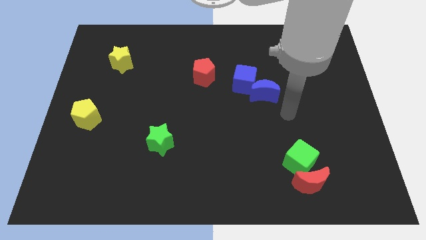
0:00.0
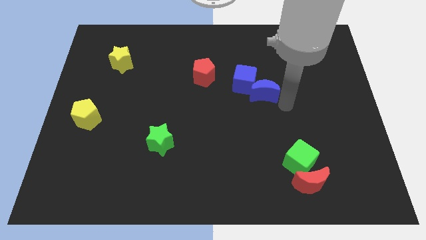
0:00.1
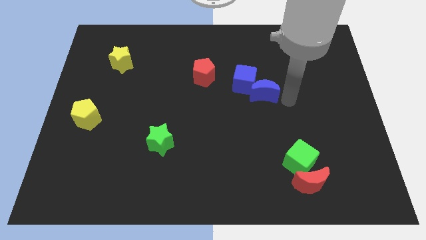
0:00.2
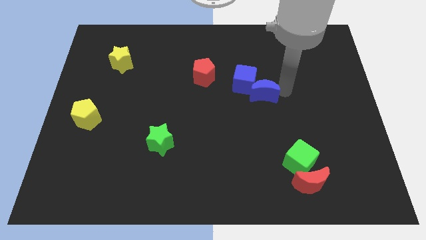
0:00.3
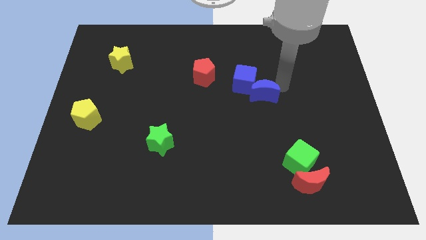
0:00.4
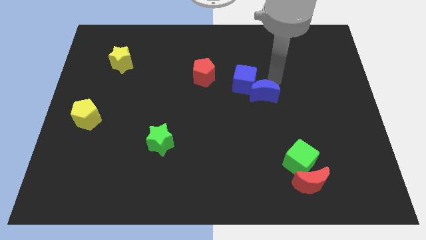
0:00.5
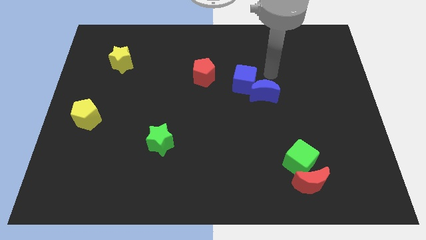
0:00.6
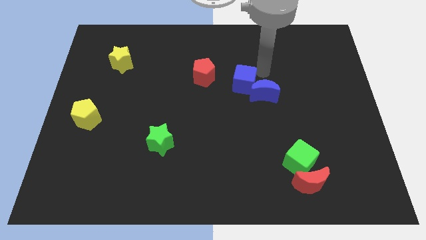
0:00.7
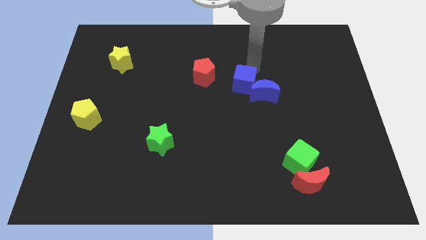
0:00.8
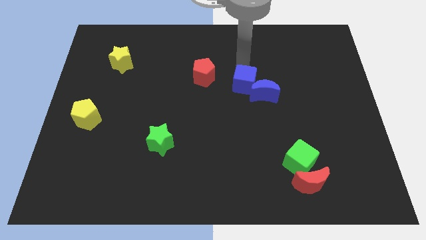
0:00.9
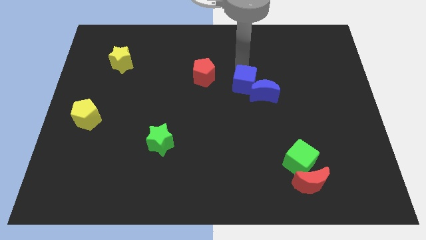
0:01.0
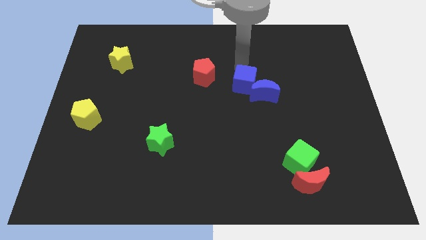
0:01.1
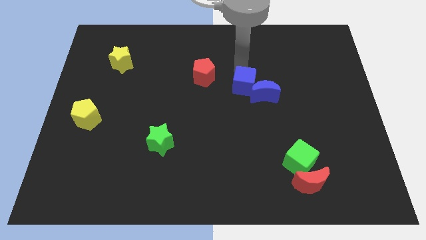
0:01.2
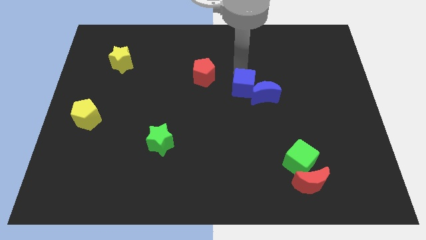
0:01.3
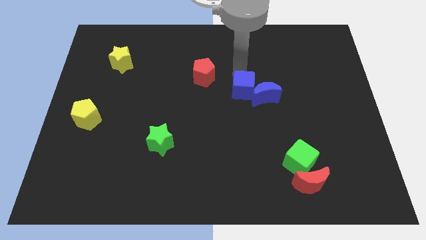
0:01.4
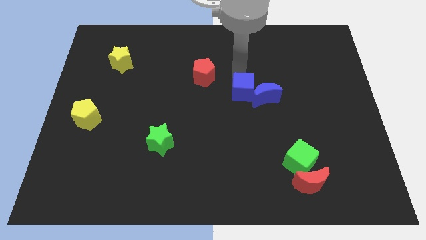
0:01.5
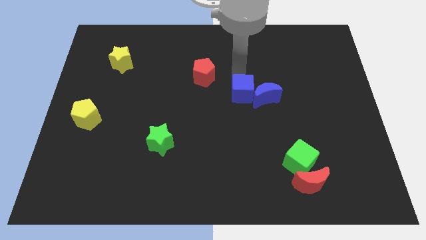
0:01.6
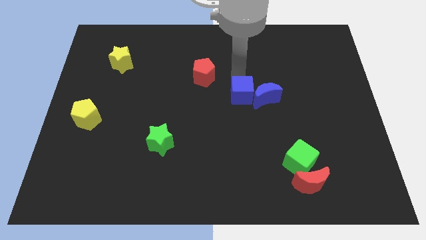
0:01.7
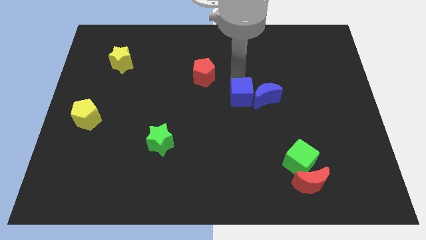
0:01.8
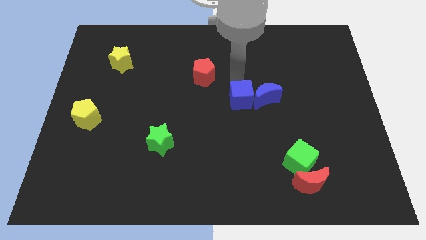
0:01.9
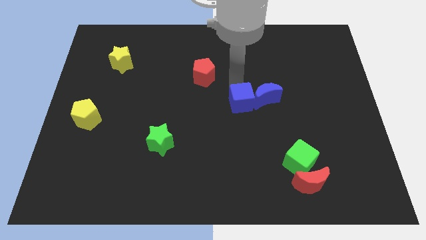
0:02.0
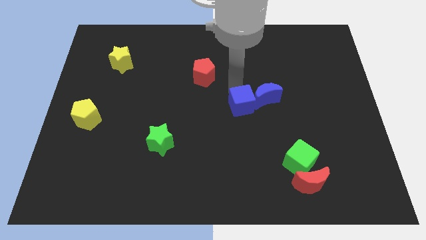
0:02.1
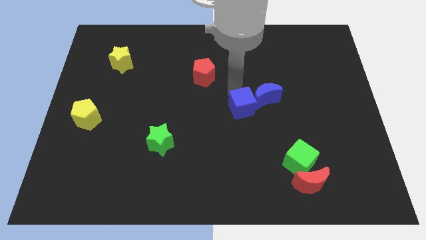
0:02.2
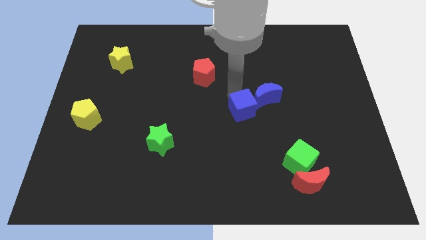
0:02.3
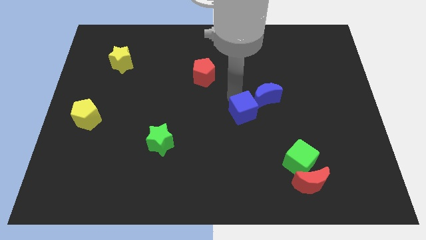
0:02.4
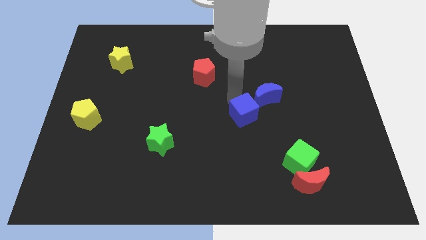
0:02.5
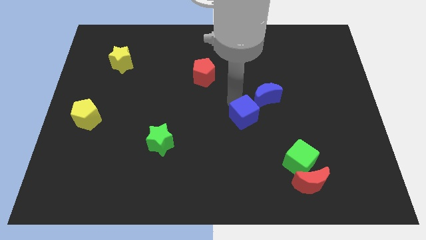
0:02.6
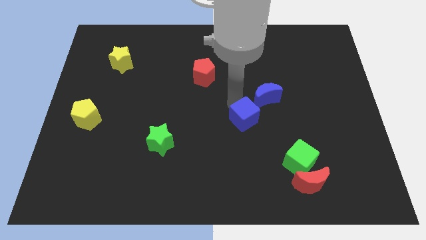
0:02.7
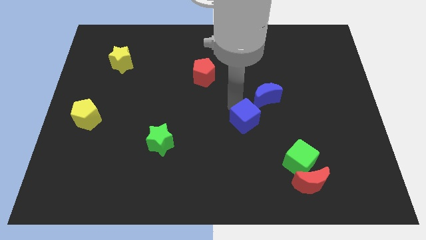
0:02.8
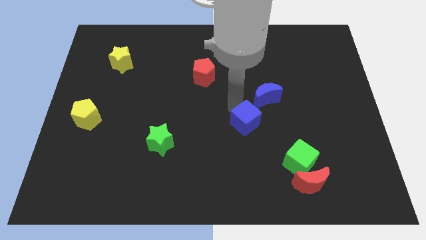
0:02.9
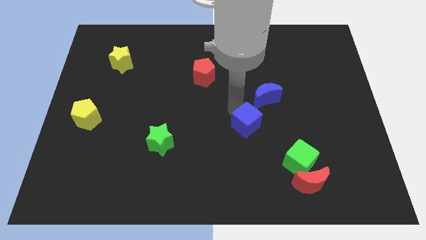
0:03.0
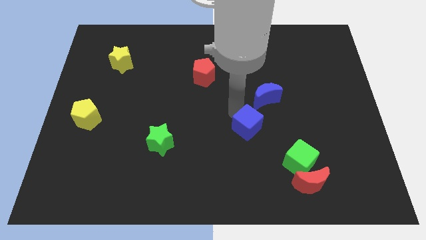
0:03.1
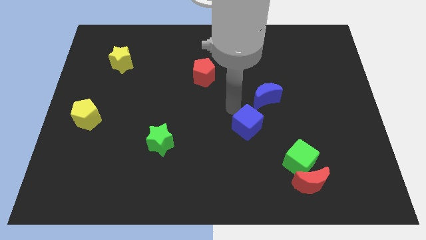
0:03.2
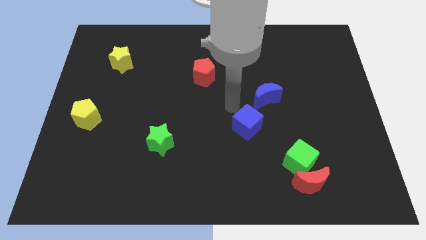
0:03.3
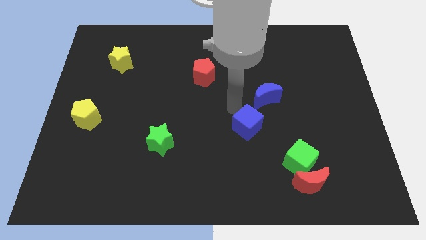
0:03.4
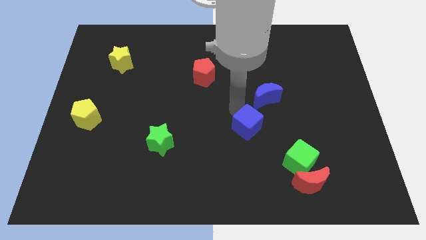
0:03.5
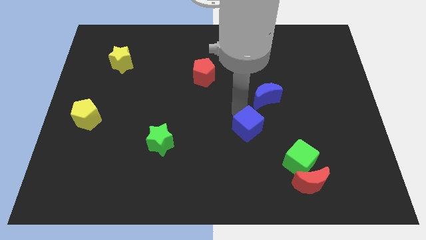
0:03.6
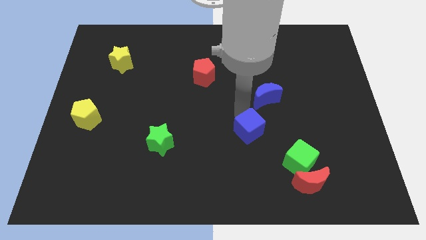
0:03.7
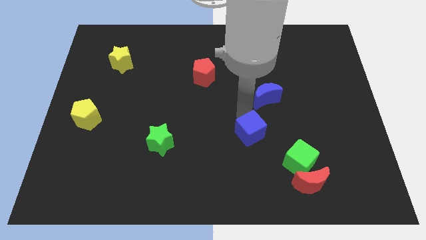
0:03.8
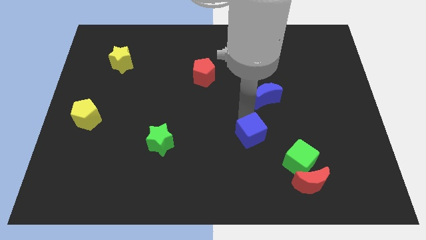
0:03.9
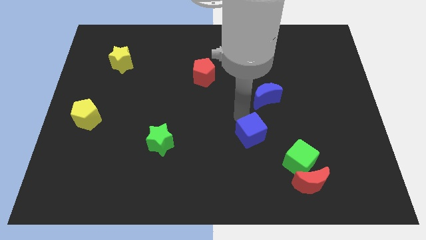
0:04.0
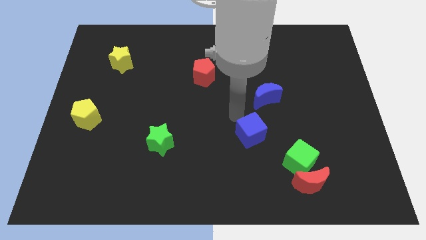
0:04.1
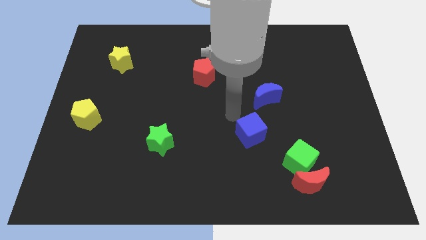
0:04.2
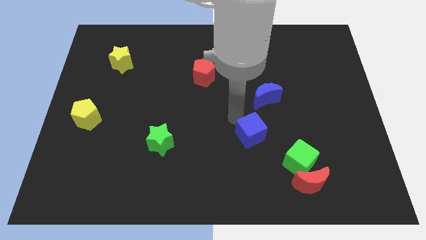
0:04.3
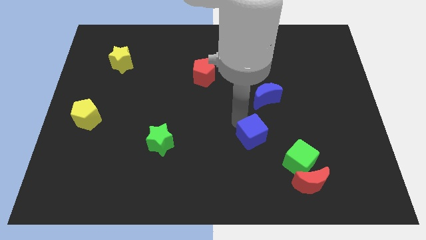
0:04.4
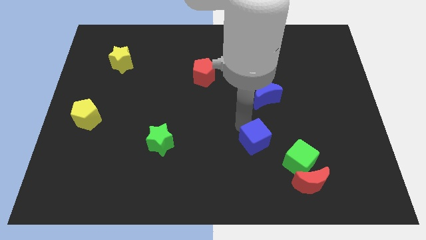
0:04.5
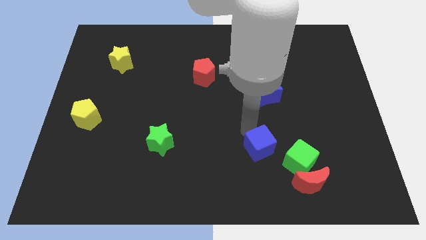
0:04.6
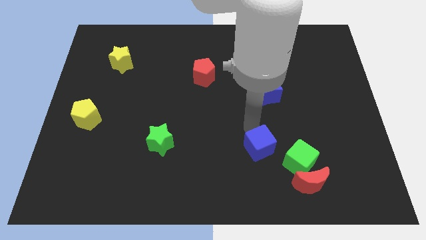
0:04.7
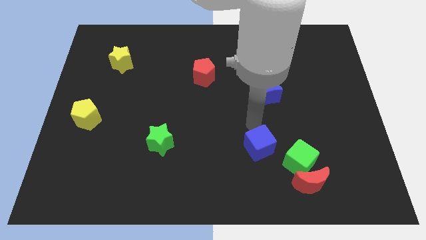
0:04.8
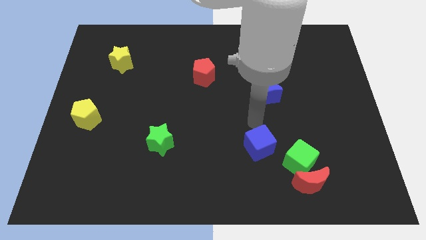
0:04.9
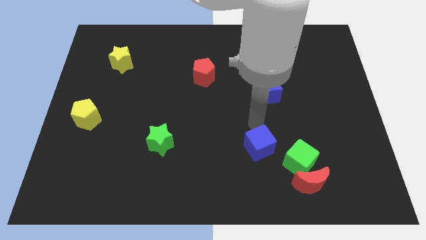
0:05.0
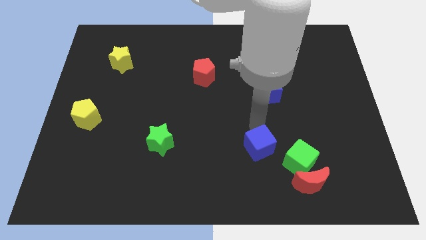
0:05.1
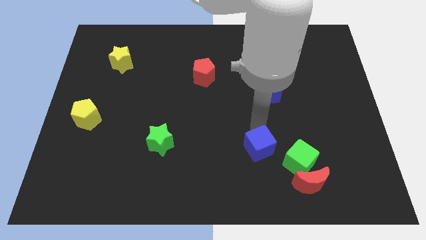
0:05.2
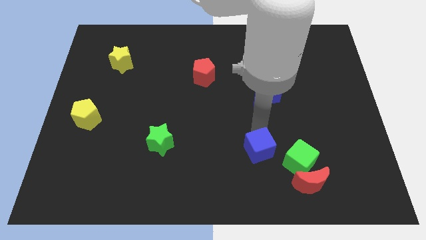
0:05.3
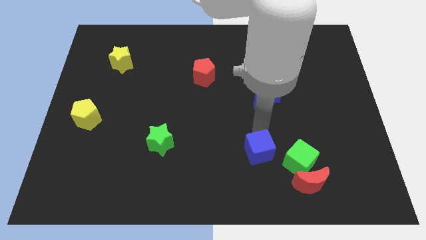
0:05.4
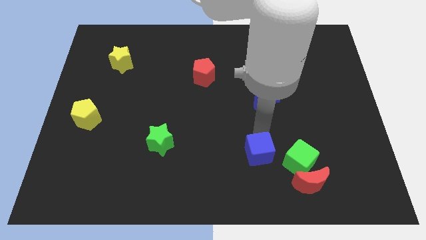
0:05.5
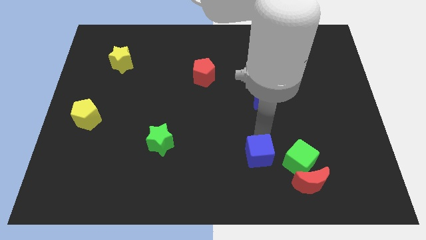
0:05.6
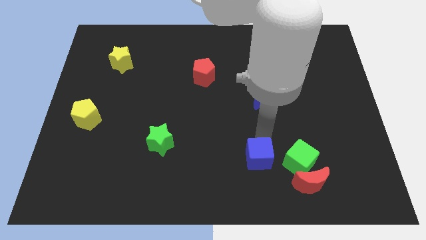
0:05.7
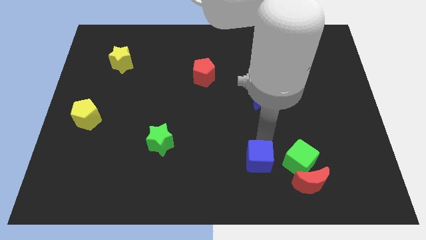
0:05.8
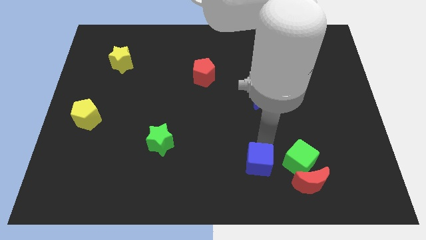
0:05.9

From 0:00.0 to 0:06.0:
push the blue cube just left of the red moon

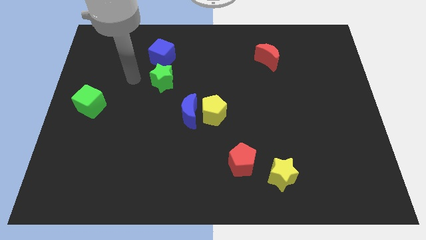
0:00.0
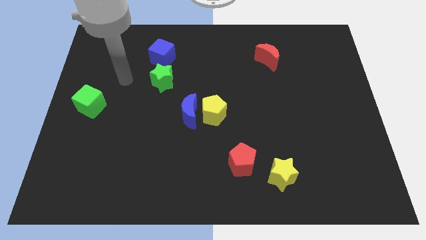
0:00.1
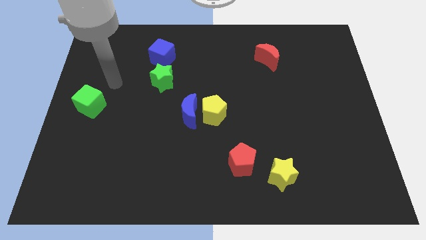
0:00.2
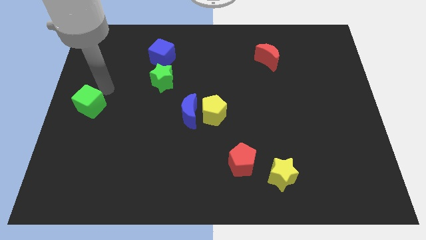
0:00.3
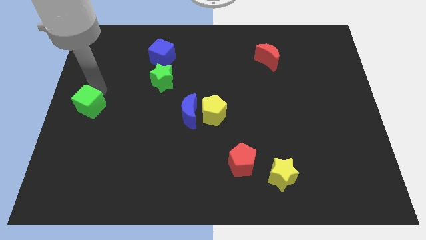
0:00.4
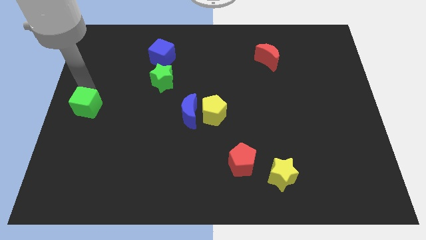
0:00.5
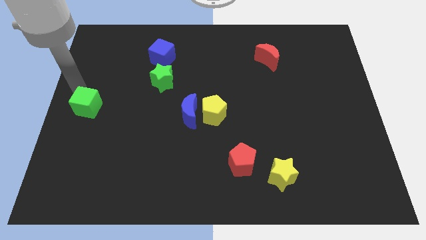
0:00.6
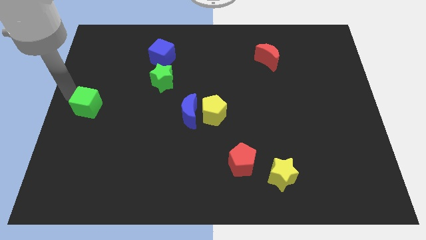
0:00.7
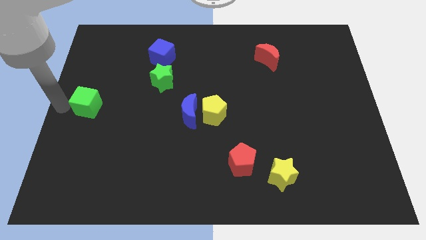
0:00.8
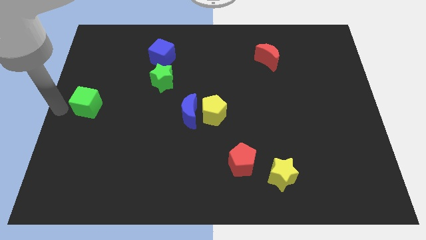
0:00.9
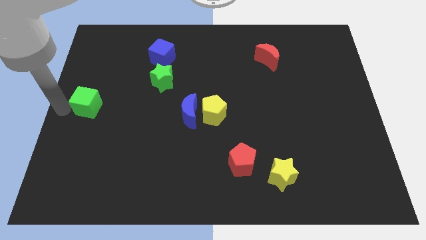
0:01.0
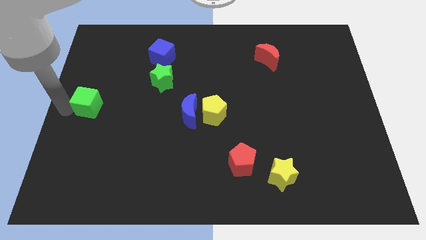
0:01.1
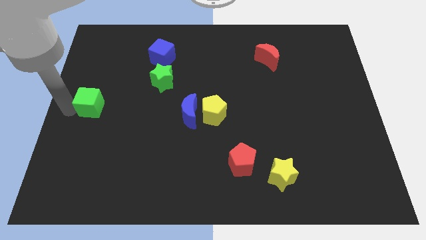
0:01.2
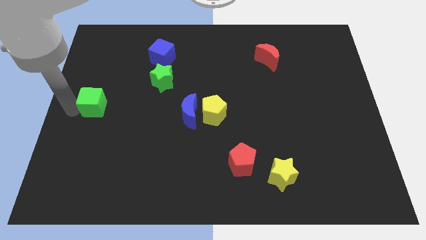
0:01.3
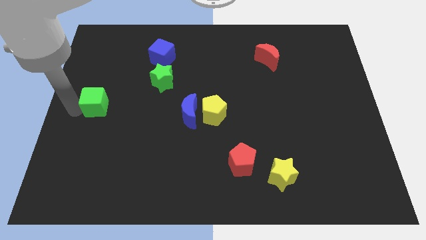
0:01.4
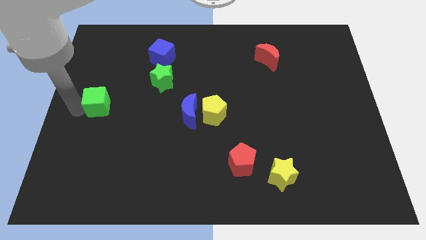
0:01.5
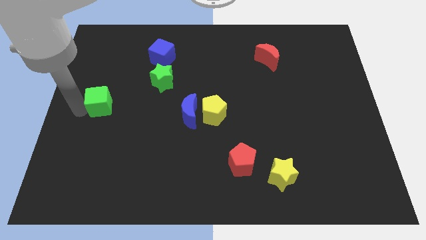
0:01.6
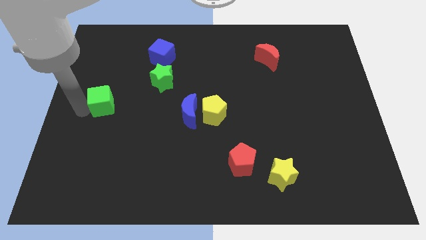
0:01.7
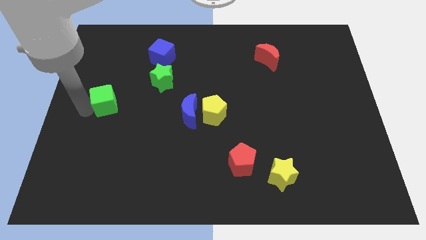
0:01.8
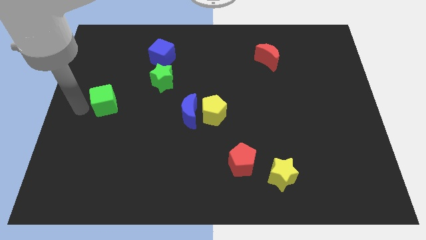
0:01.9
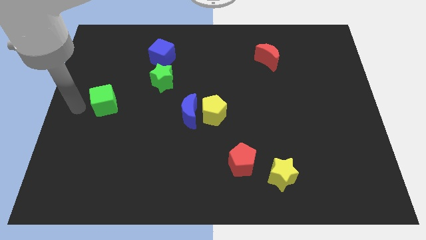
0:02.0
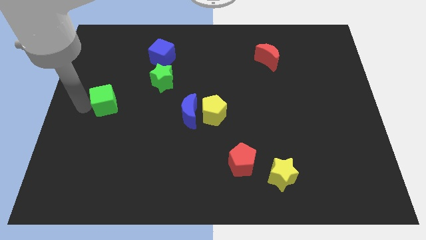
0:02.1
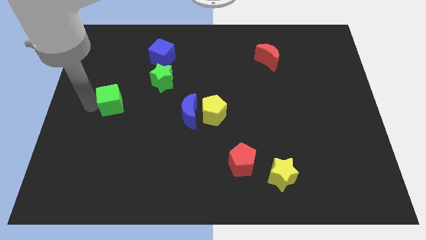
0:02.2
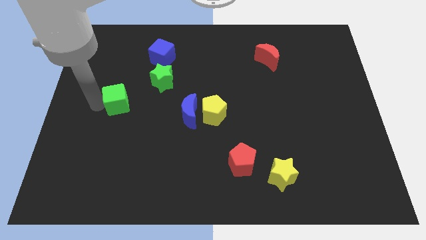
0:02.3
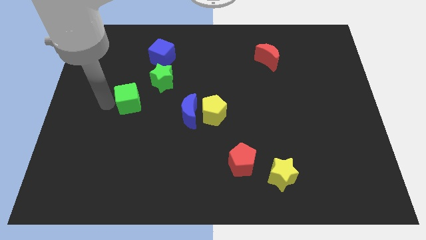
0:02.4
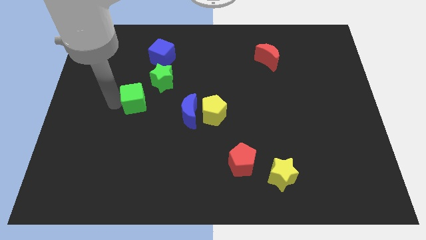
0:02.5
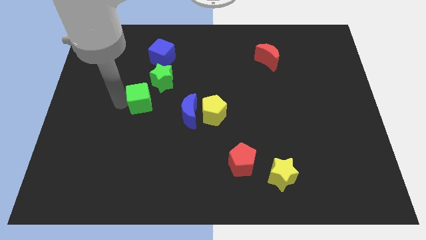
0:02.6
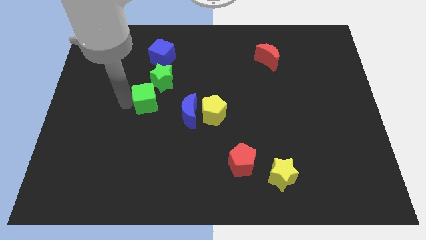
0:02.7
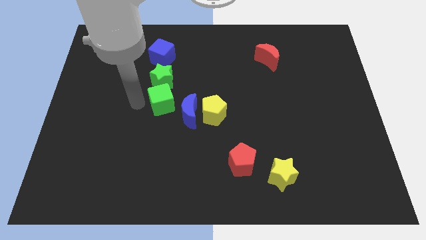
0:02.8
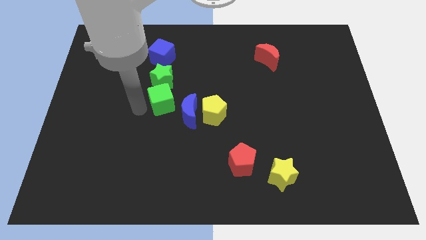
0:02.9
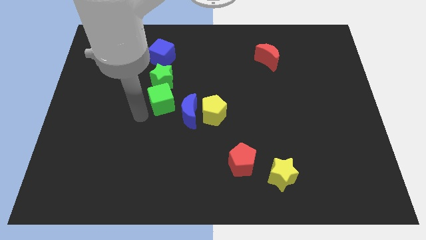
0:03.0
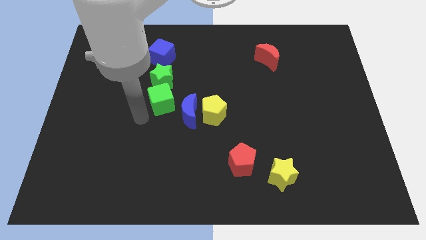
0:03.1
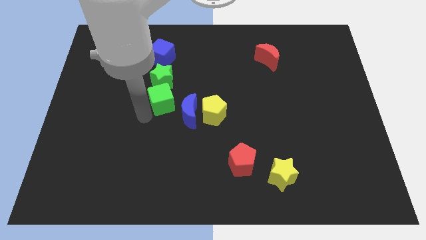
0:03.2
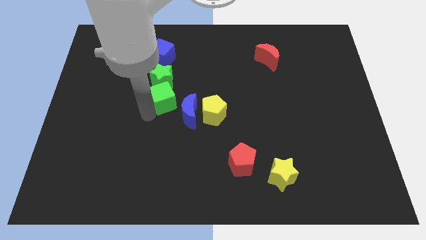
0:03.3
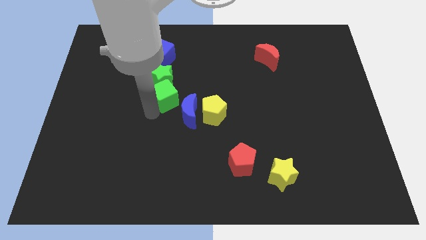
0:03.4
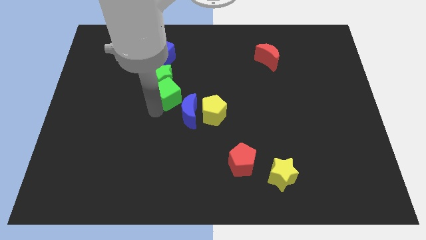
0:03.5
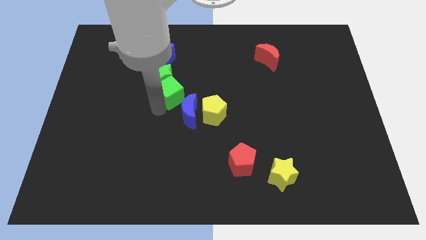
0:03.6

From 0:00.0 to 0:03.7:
push the green cube above the blue moon
